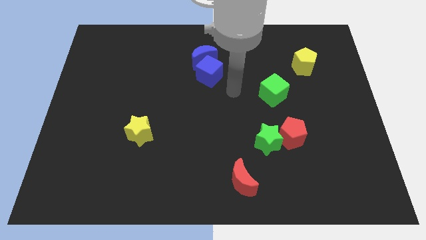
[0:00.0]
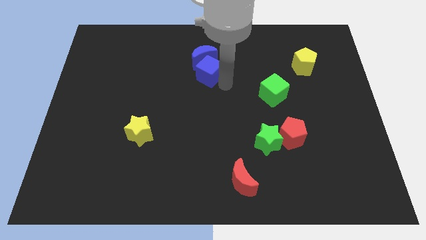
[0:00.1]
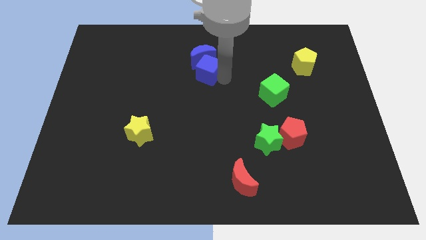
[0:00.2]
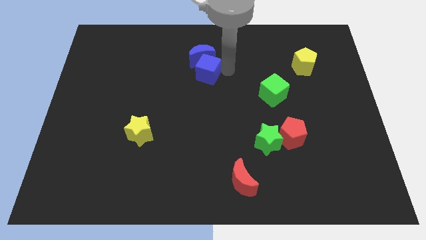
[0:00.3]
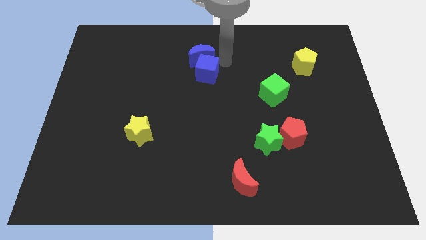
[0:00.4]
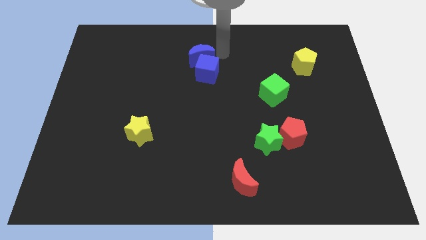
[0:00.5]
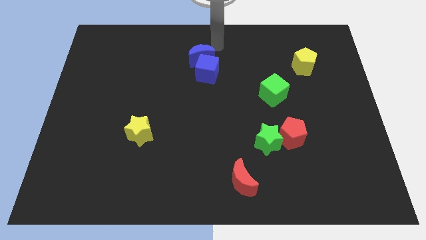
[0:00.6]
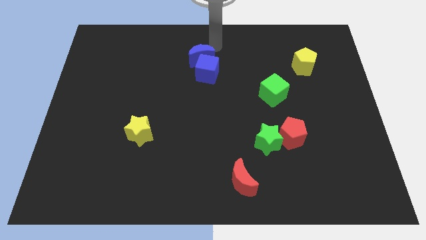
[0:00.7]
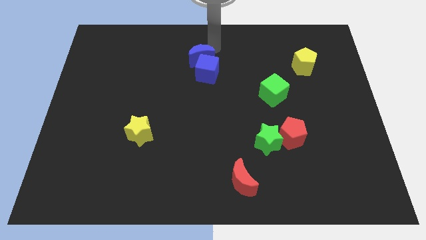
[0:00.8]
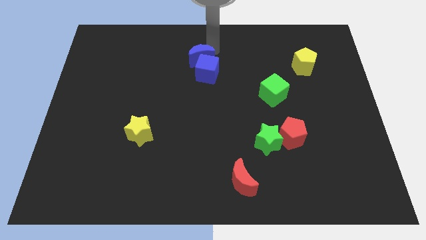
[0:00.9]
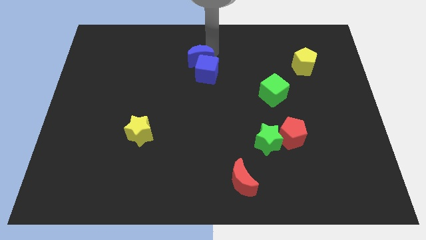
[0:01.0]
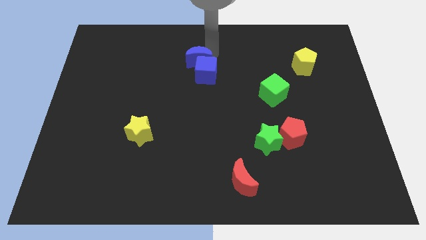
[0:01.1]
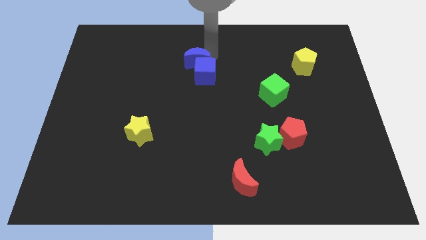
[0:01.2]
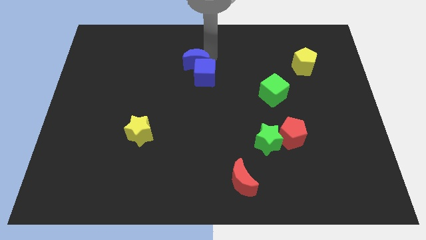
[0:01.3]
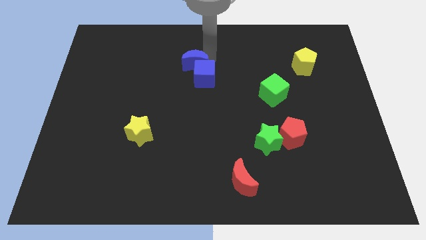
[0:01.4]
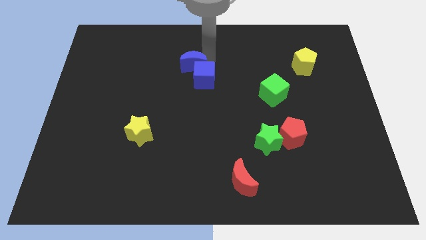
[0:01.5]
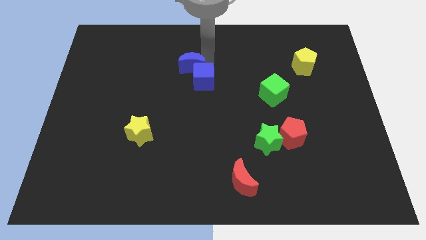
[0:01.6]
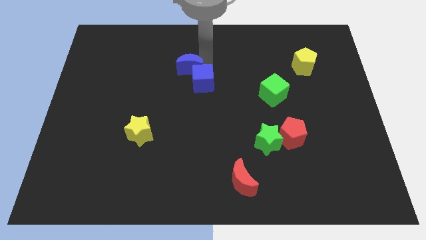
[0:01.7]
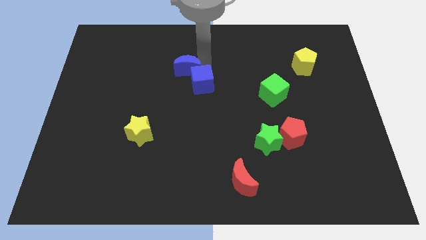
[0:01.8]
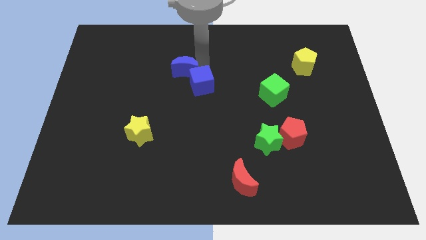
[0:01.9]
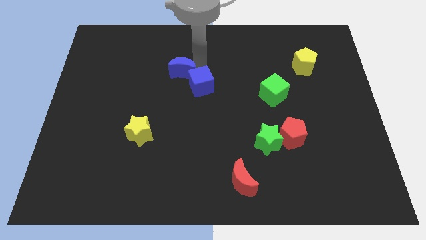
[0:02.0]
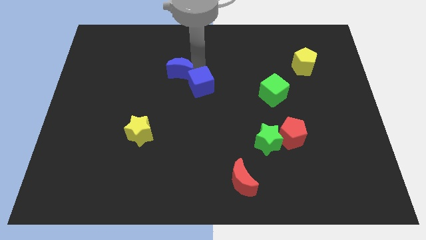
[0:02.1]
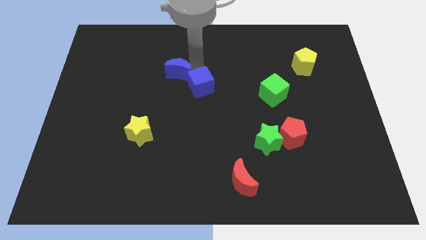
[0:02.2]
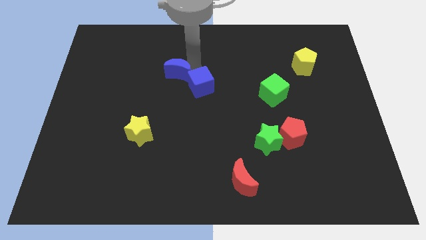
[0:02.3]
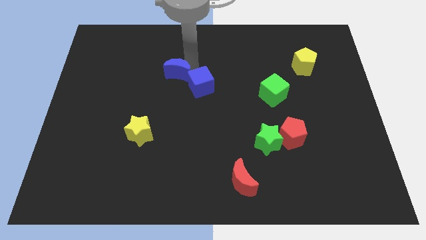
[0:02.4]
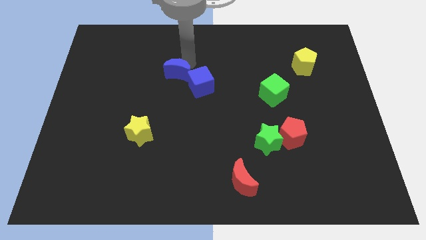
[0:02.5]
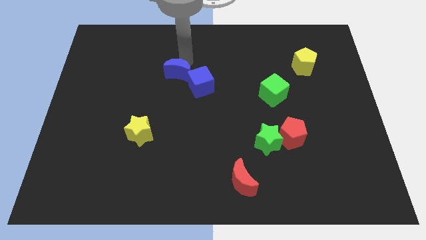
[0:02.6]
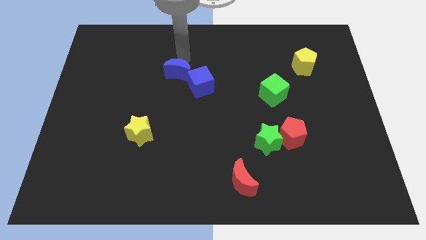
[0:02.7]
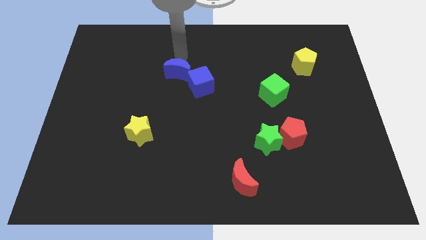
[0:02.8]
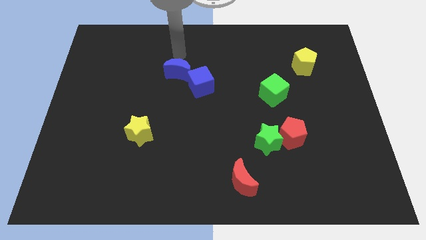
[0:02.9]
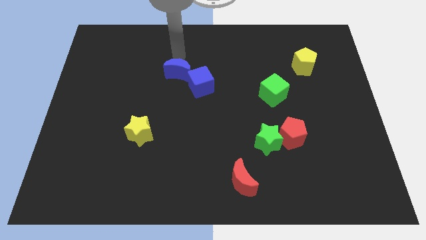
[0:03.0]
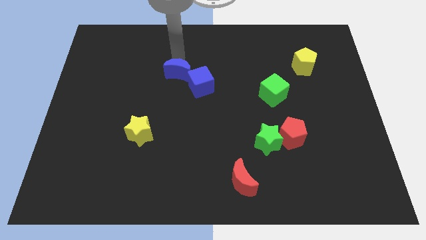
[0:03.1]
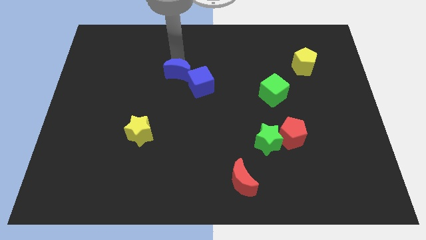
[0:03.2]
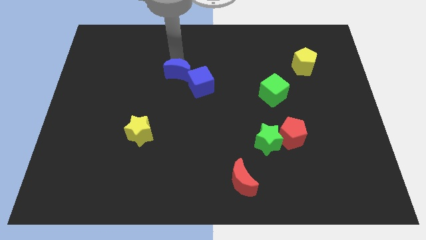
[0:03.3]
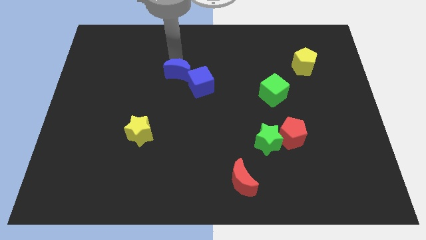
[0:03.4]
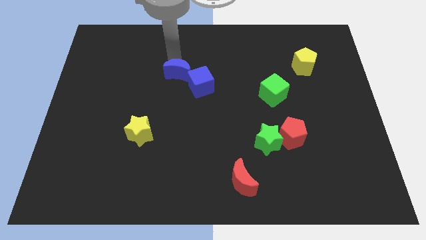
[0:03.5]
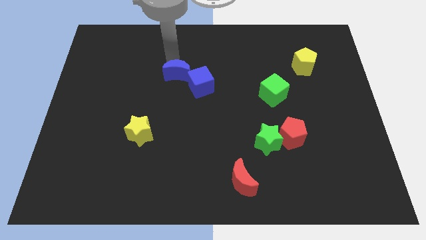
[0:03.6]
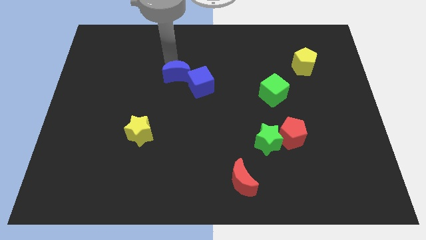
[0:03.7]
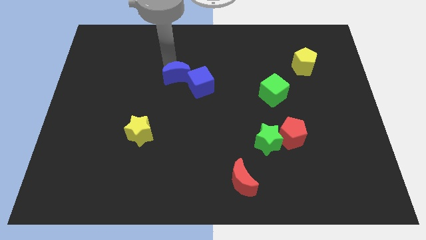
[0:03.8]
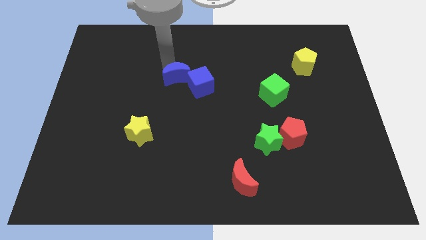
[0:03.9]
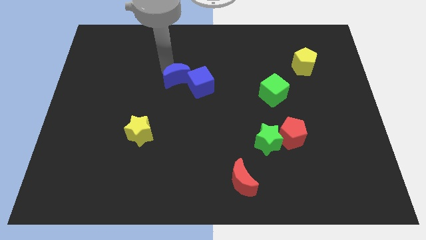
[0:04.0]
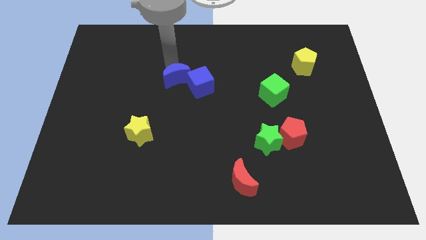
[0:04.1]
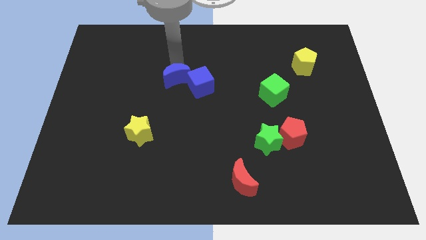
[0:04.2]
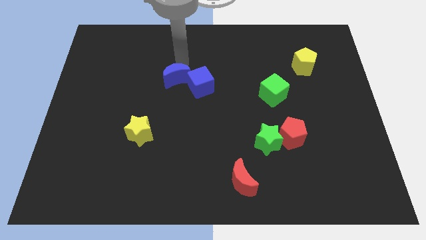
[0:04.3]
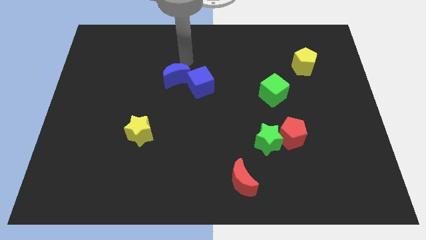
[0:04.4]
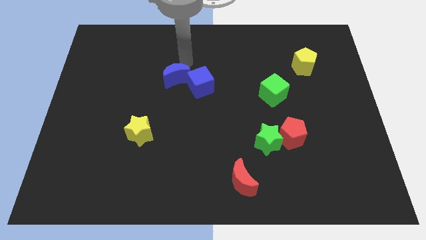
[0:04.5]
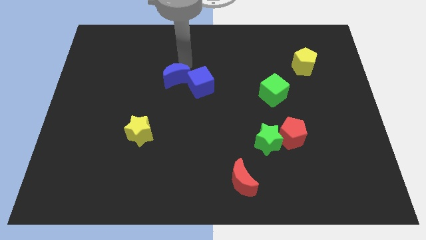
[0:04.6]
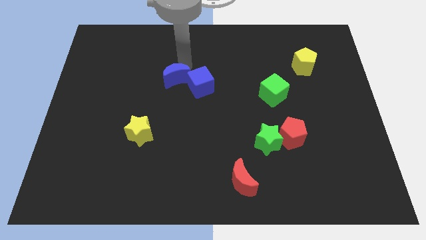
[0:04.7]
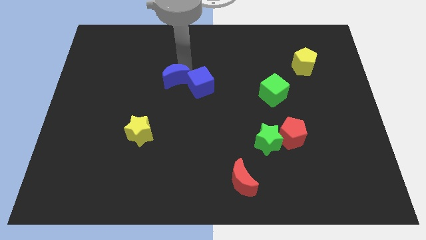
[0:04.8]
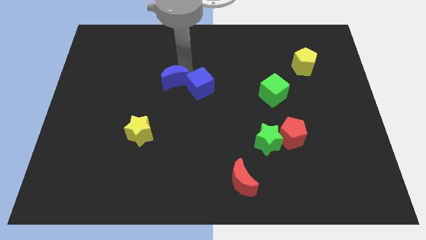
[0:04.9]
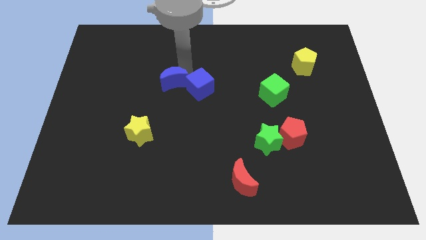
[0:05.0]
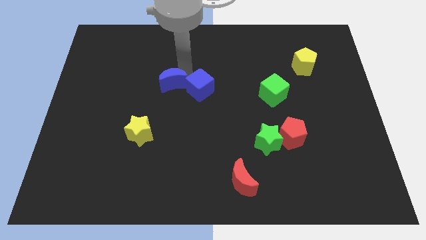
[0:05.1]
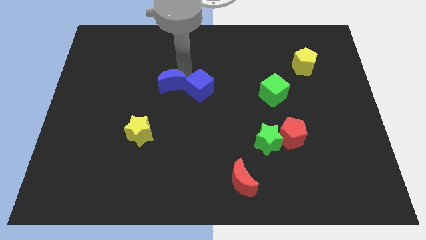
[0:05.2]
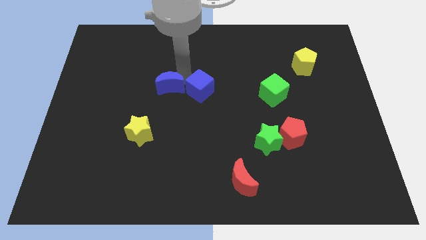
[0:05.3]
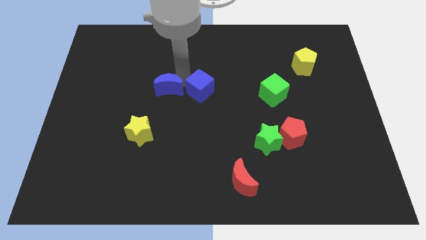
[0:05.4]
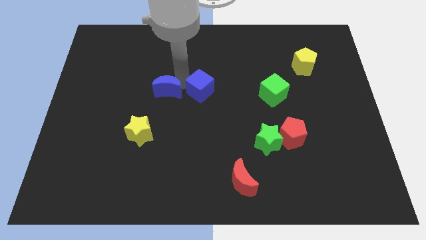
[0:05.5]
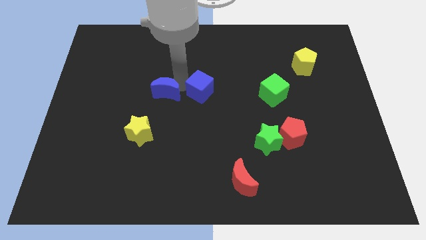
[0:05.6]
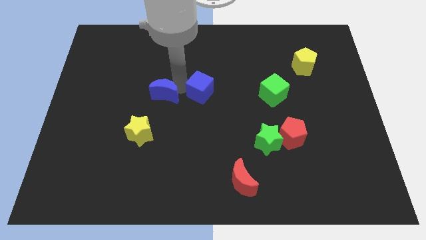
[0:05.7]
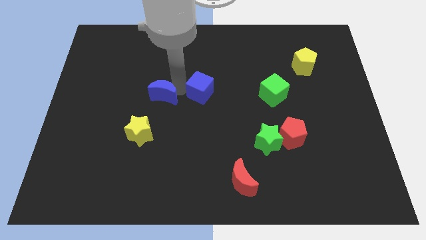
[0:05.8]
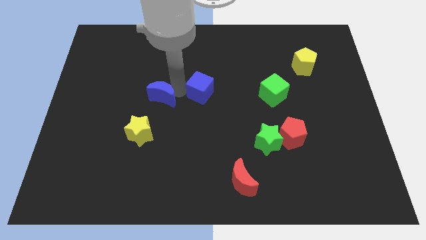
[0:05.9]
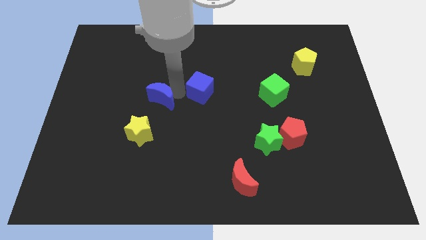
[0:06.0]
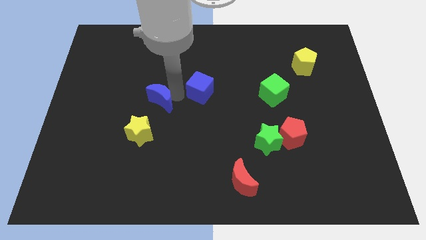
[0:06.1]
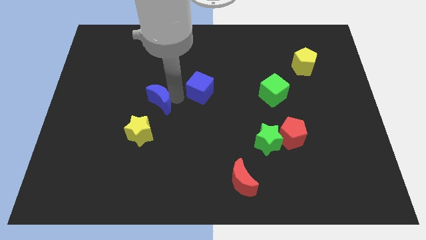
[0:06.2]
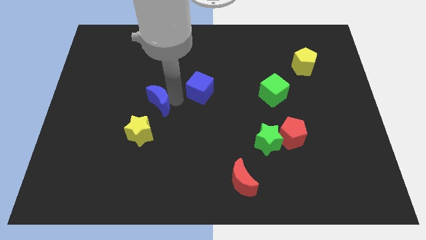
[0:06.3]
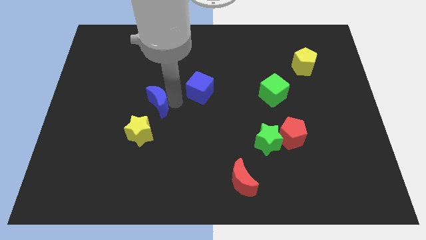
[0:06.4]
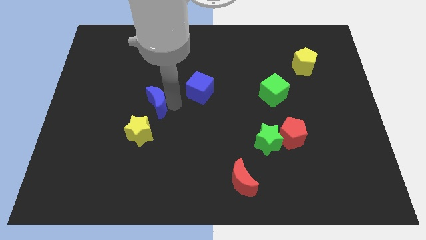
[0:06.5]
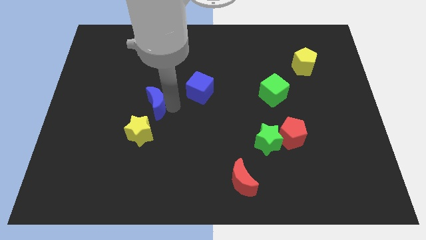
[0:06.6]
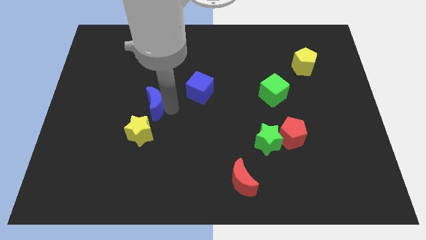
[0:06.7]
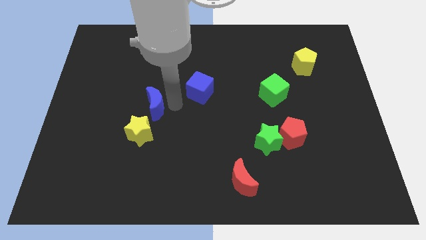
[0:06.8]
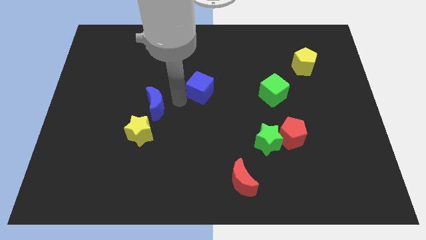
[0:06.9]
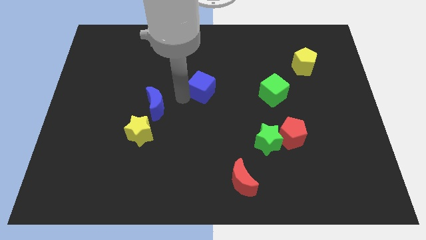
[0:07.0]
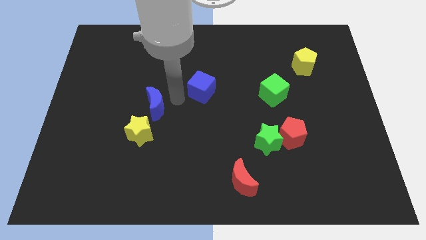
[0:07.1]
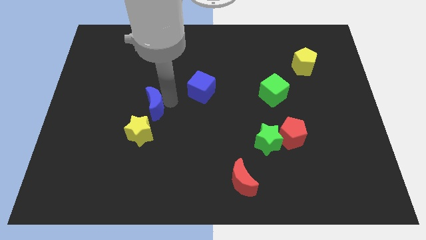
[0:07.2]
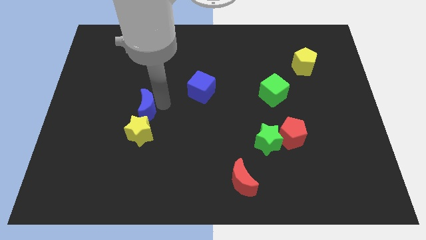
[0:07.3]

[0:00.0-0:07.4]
push the blue moon downwards and then left

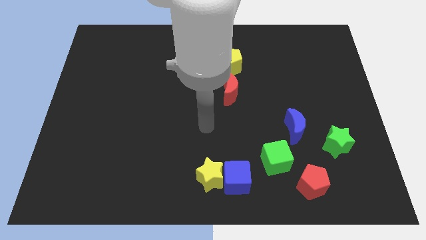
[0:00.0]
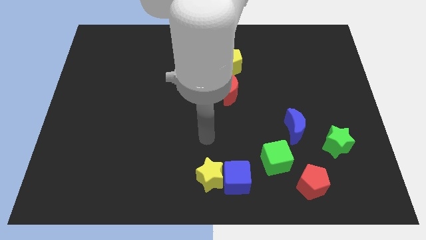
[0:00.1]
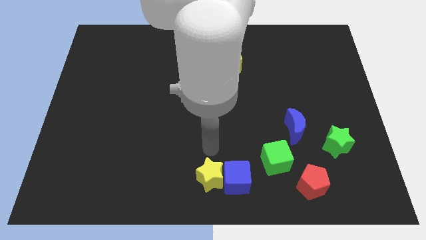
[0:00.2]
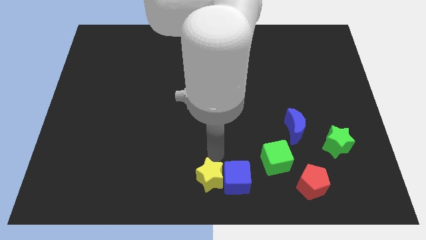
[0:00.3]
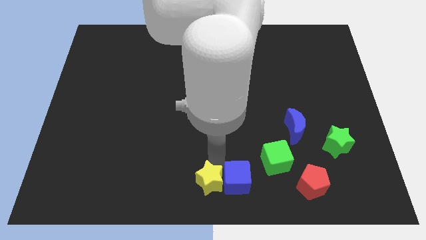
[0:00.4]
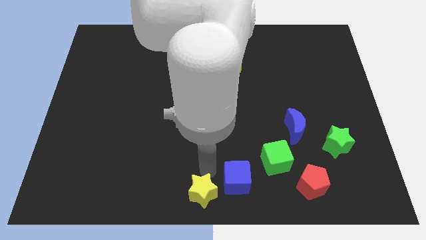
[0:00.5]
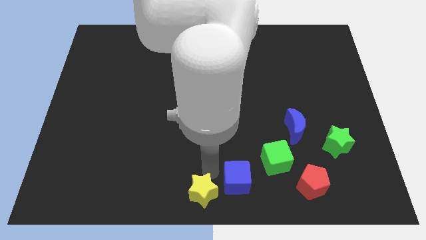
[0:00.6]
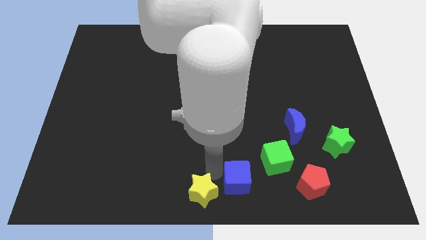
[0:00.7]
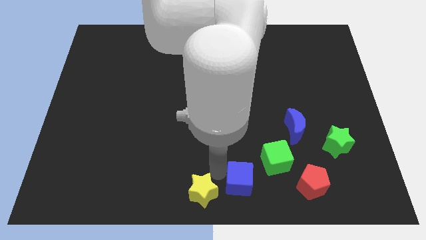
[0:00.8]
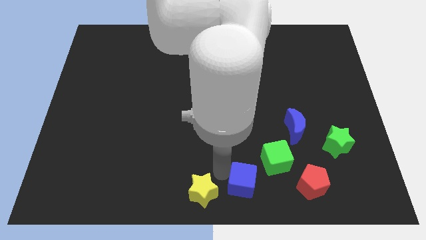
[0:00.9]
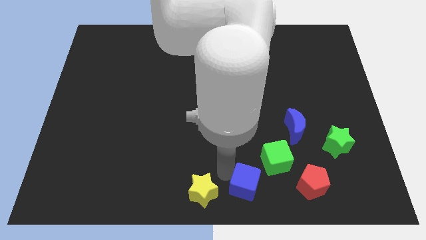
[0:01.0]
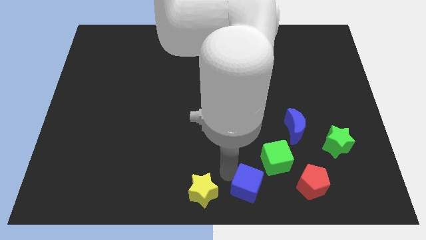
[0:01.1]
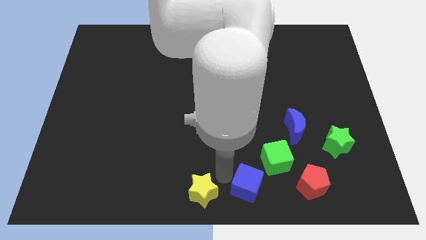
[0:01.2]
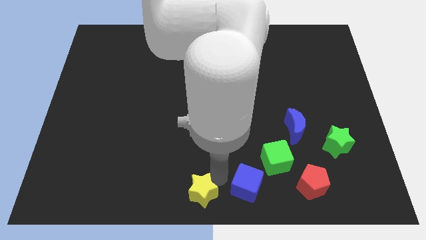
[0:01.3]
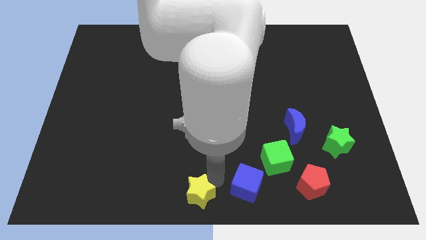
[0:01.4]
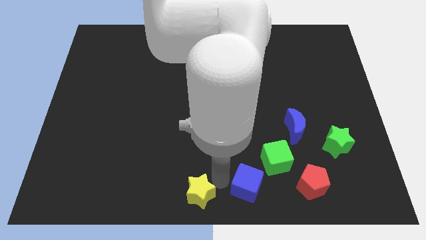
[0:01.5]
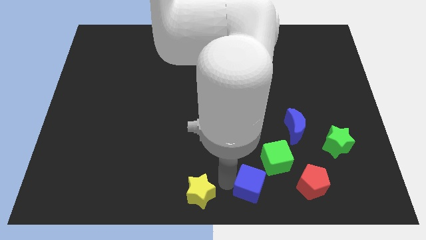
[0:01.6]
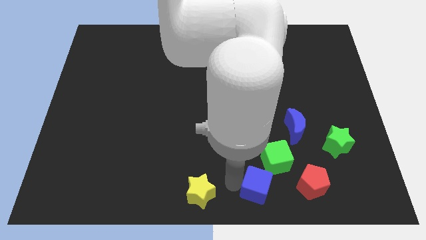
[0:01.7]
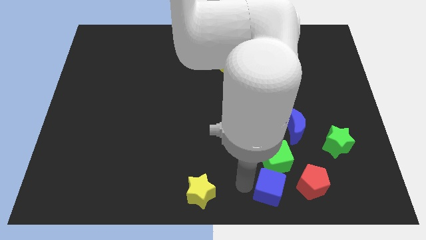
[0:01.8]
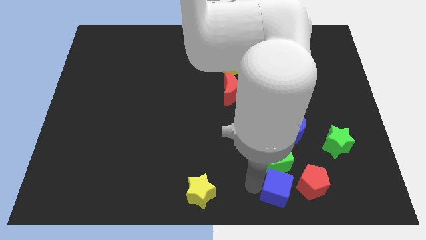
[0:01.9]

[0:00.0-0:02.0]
slightly push the blue cube right
